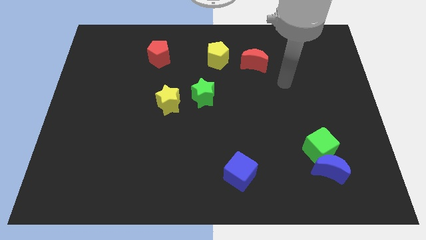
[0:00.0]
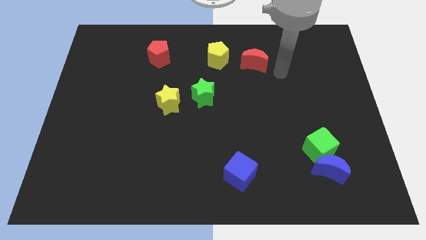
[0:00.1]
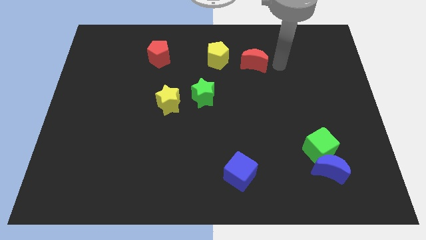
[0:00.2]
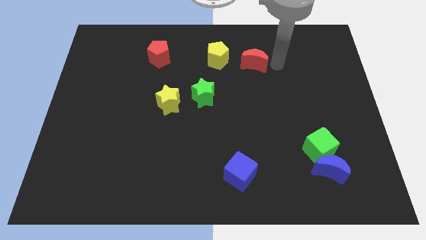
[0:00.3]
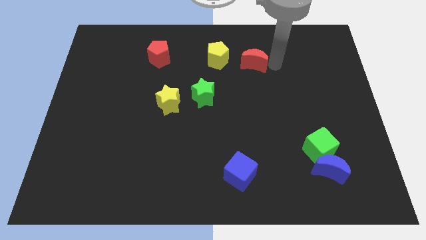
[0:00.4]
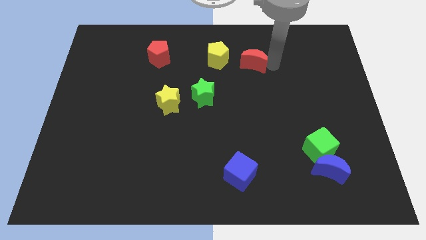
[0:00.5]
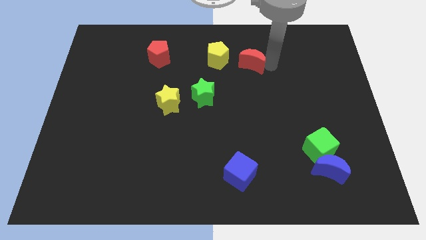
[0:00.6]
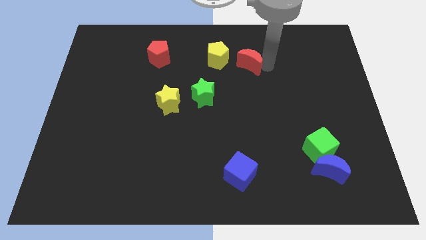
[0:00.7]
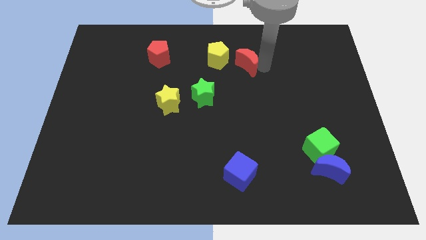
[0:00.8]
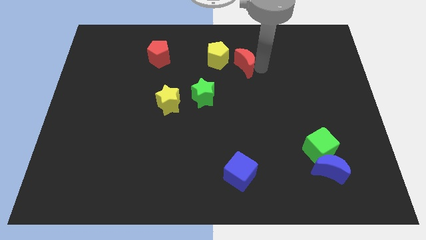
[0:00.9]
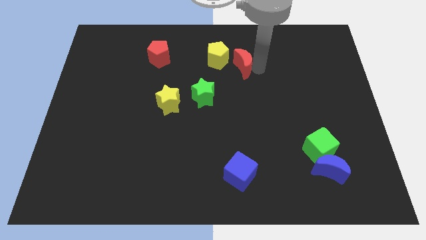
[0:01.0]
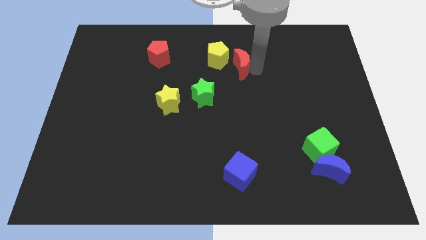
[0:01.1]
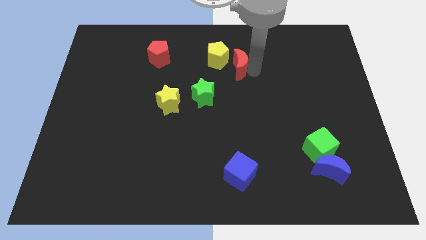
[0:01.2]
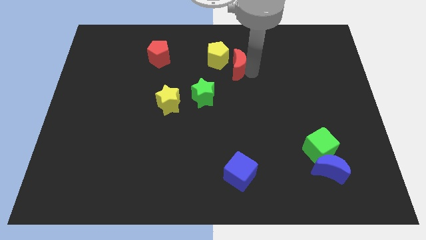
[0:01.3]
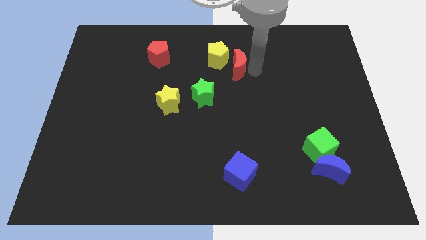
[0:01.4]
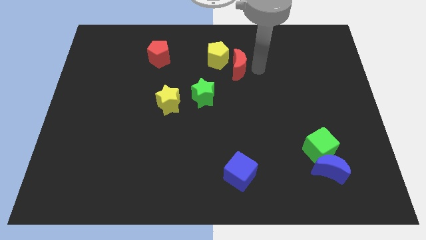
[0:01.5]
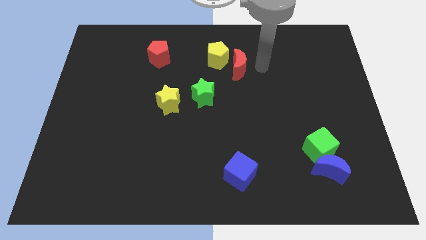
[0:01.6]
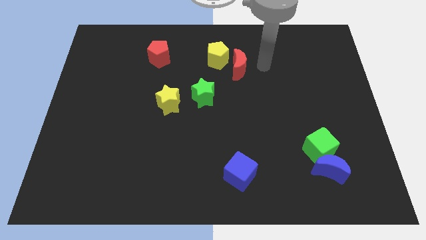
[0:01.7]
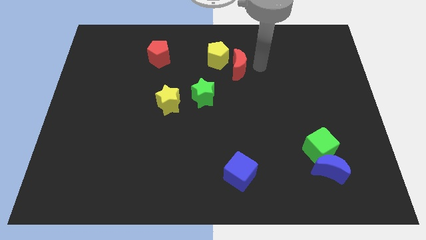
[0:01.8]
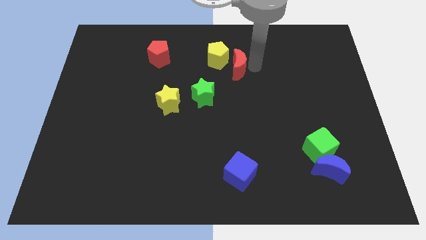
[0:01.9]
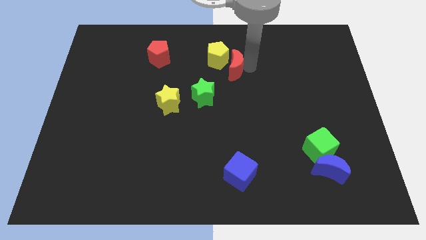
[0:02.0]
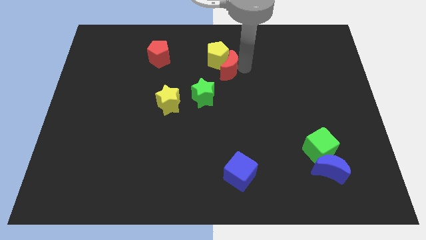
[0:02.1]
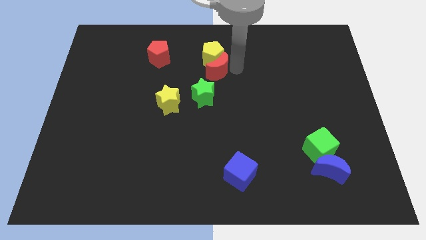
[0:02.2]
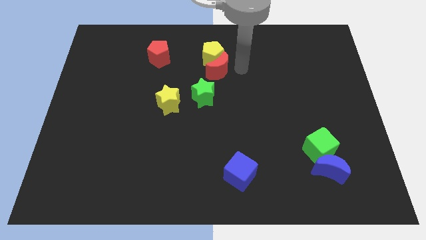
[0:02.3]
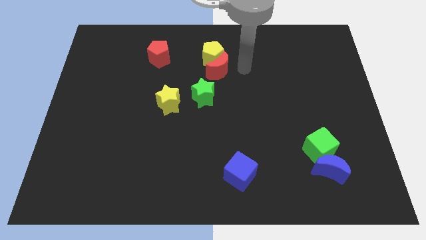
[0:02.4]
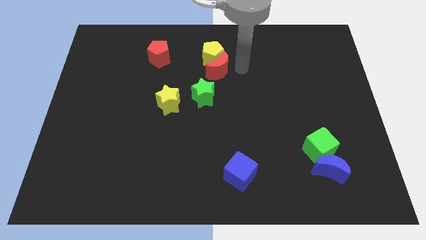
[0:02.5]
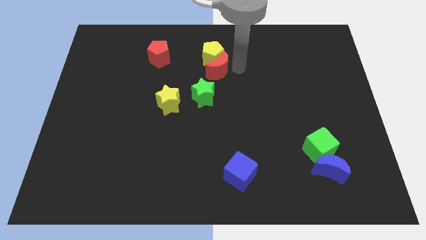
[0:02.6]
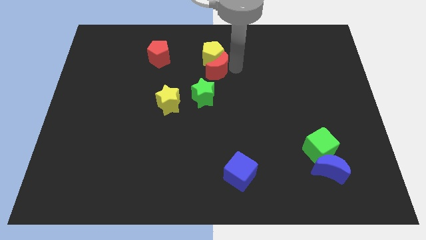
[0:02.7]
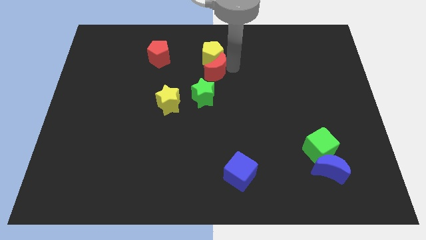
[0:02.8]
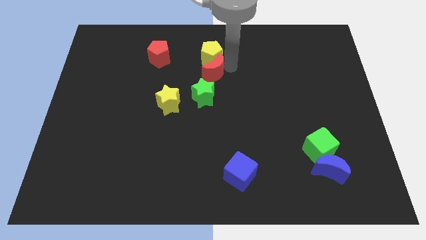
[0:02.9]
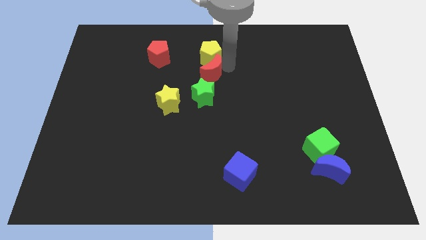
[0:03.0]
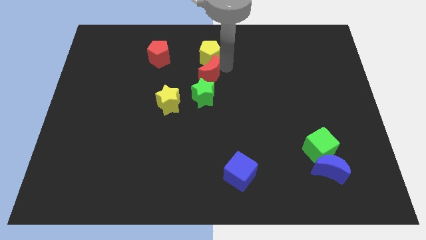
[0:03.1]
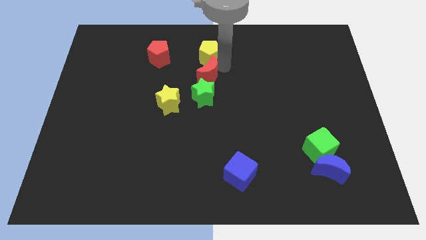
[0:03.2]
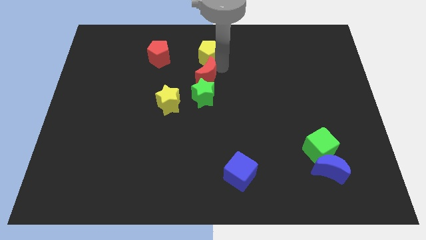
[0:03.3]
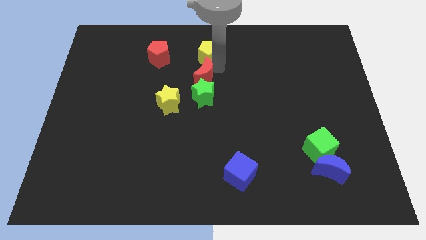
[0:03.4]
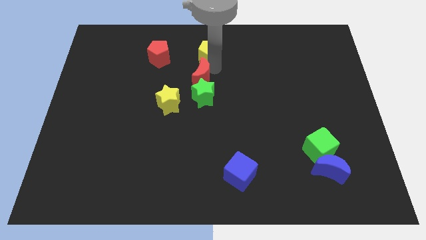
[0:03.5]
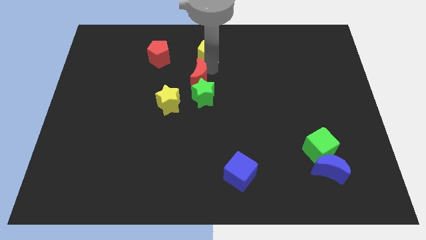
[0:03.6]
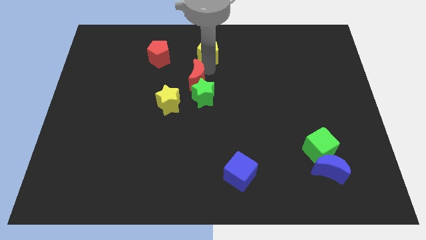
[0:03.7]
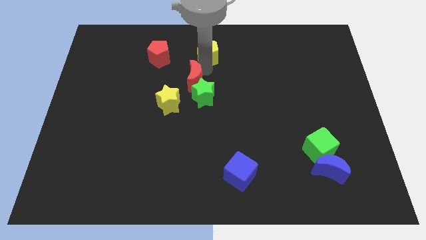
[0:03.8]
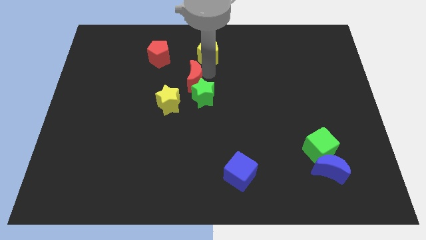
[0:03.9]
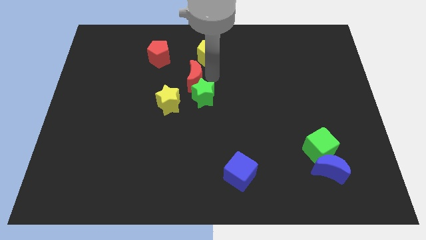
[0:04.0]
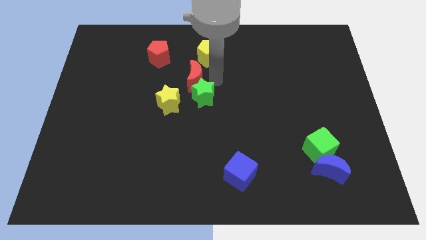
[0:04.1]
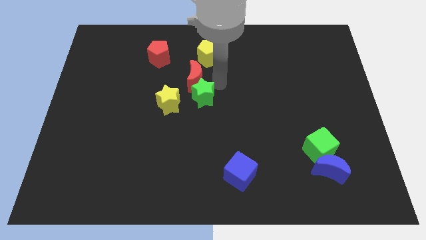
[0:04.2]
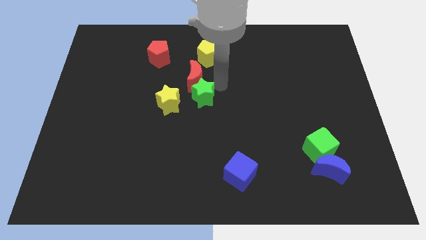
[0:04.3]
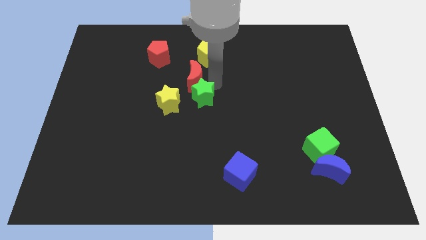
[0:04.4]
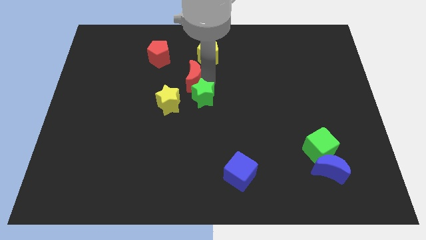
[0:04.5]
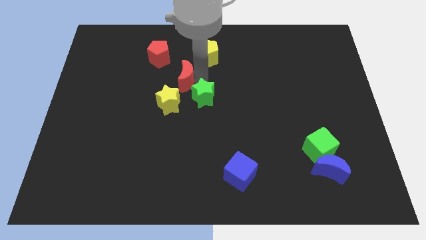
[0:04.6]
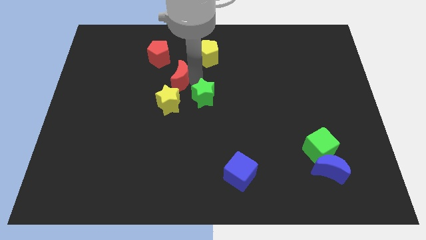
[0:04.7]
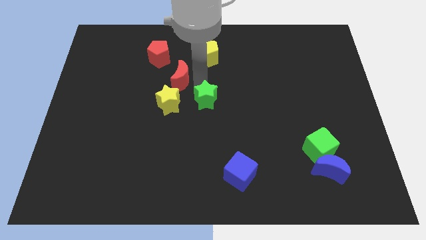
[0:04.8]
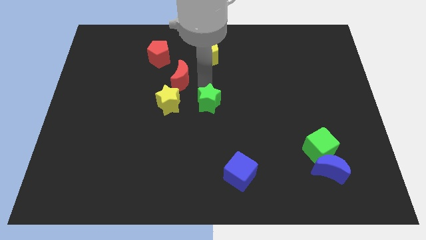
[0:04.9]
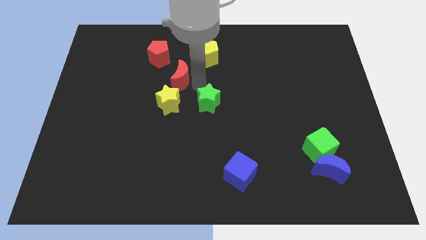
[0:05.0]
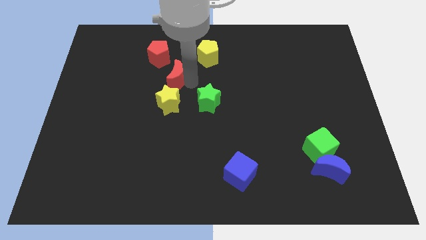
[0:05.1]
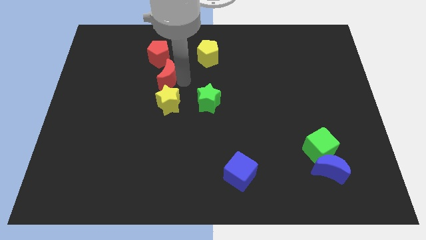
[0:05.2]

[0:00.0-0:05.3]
slide the red moon left

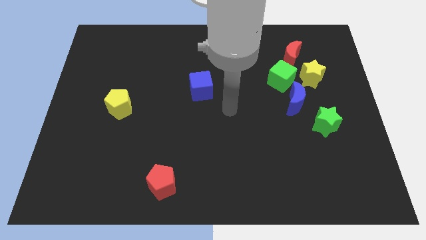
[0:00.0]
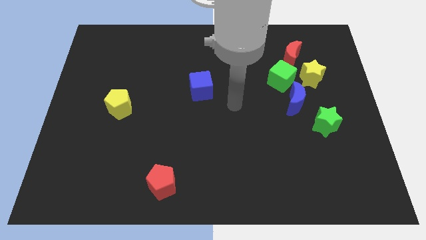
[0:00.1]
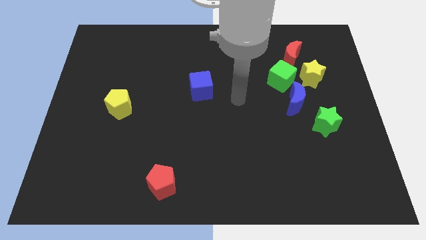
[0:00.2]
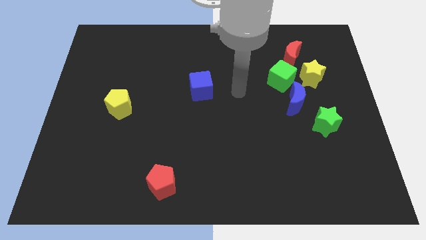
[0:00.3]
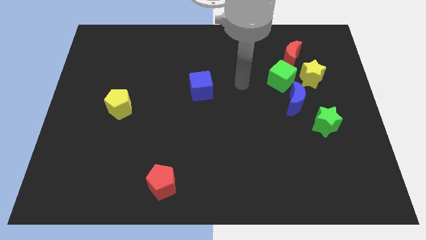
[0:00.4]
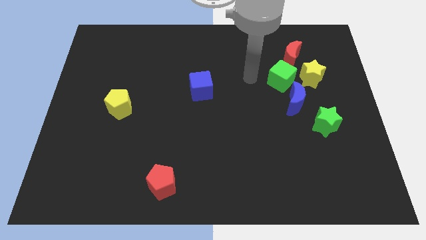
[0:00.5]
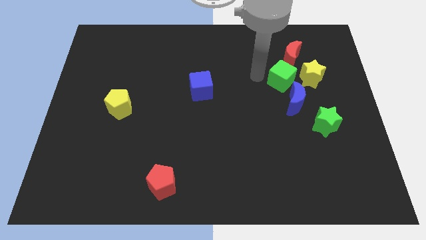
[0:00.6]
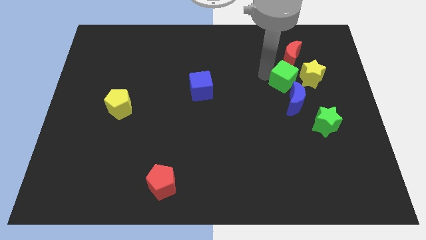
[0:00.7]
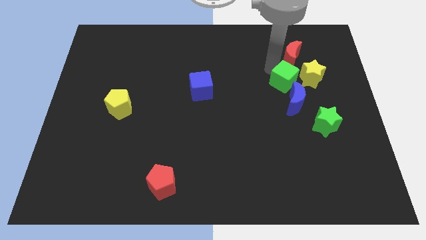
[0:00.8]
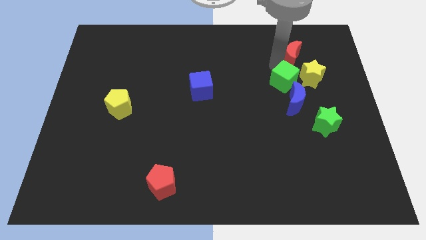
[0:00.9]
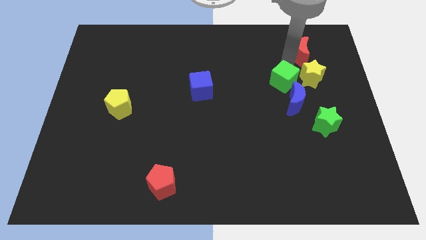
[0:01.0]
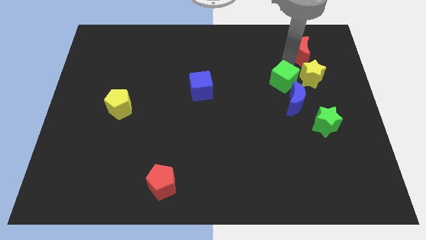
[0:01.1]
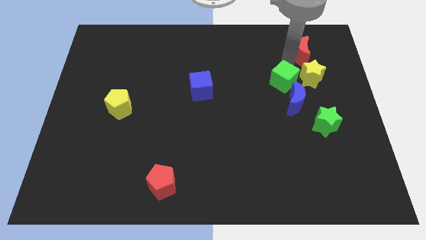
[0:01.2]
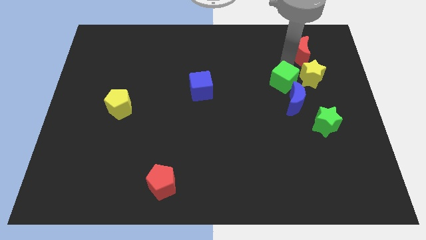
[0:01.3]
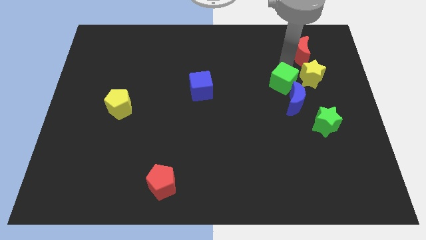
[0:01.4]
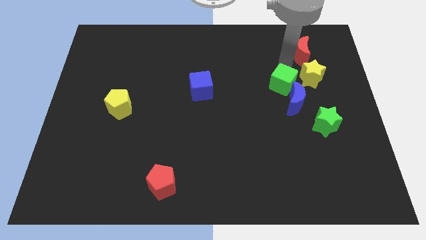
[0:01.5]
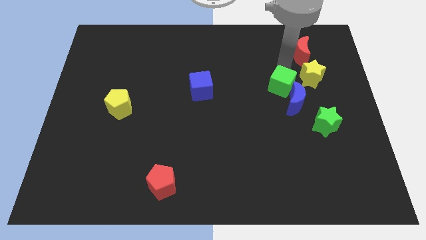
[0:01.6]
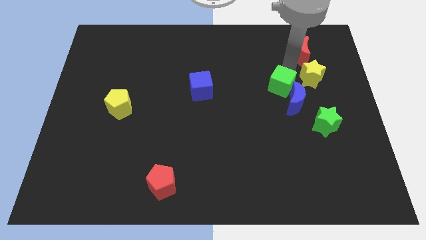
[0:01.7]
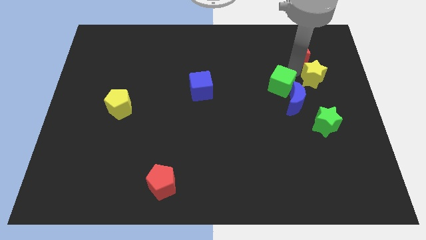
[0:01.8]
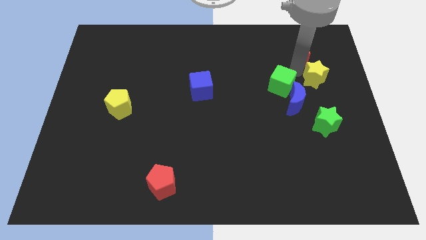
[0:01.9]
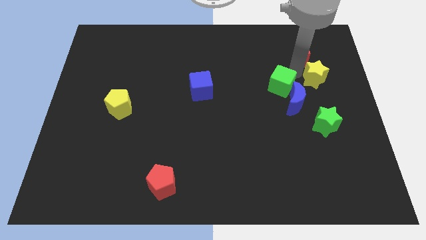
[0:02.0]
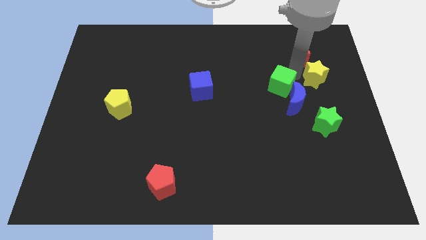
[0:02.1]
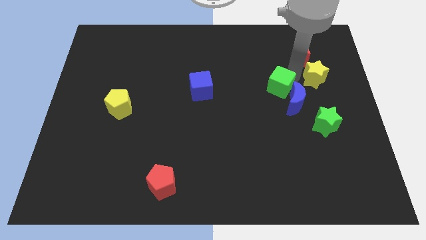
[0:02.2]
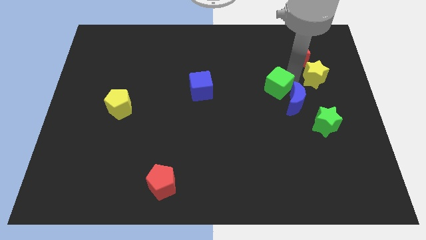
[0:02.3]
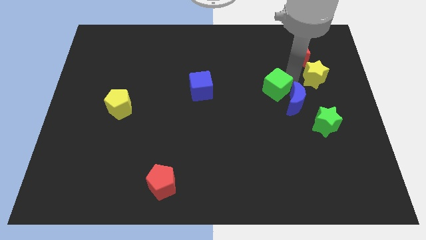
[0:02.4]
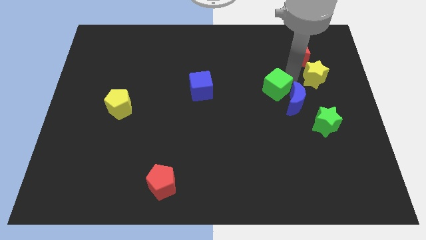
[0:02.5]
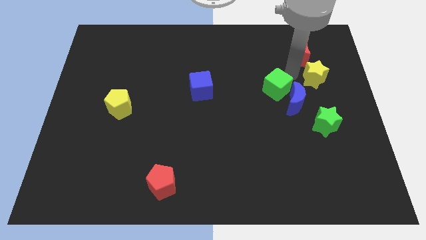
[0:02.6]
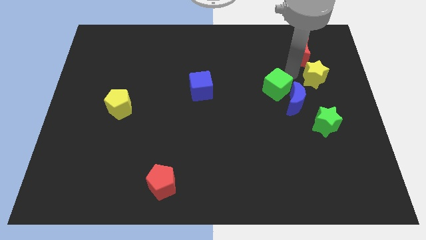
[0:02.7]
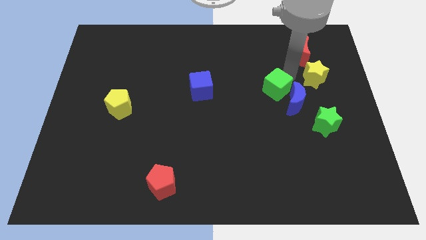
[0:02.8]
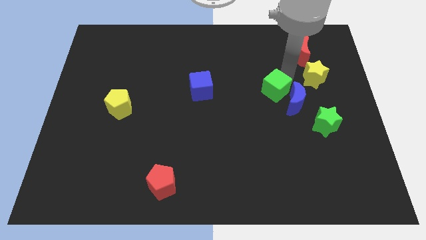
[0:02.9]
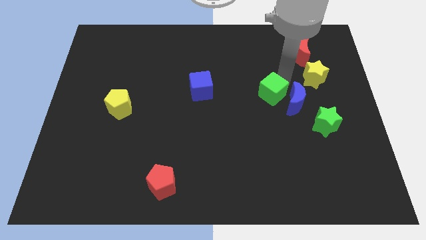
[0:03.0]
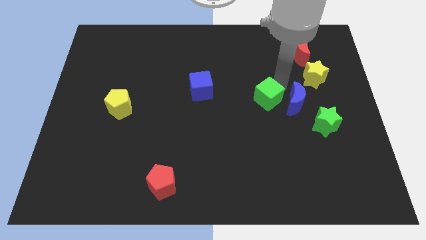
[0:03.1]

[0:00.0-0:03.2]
slightly move the green cube diagonally down and left

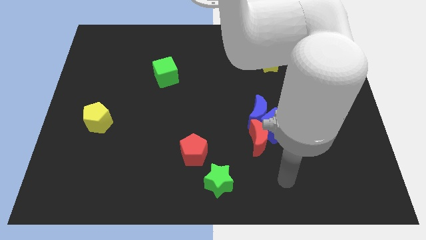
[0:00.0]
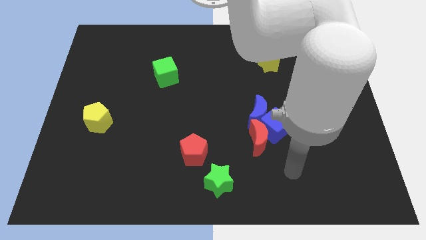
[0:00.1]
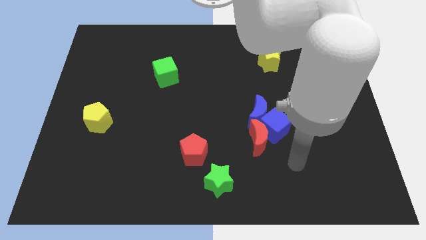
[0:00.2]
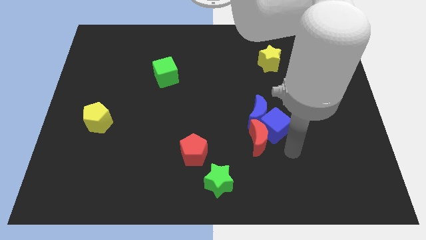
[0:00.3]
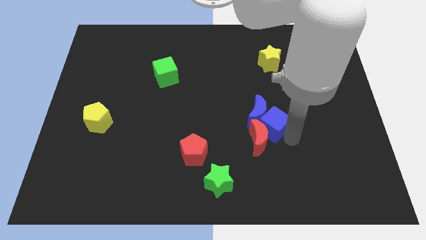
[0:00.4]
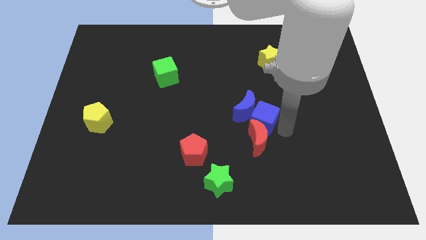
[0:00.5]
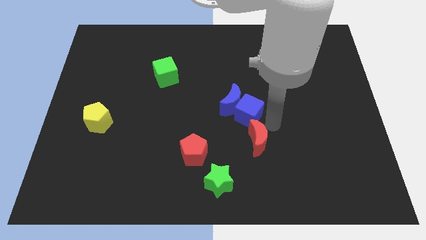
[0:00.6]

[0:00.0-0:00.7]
slightly push the blue moon upwards and left diagonally
